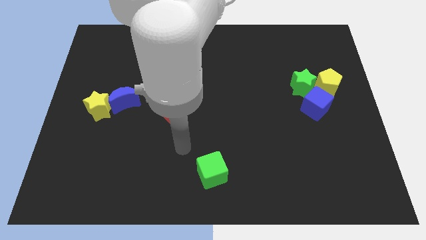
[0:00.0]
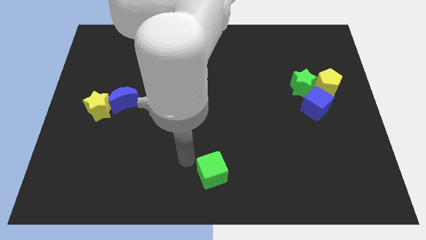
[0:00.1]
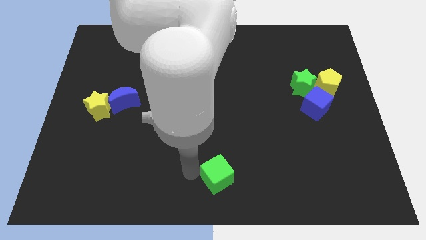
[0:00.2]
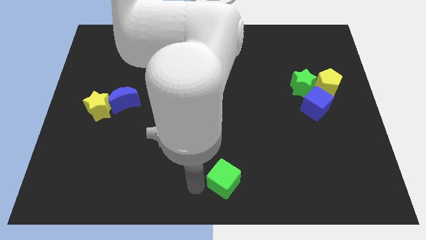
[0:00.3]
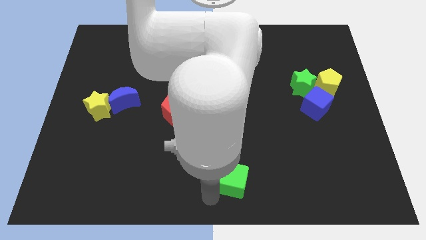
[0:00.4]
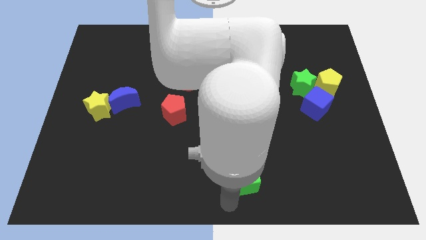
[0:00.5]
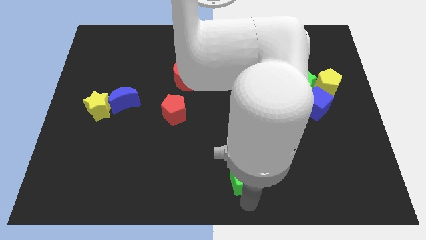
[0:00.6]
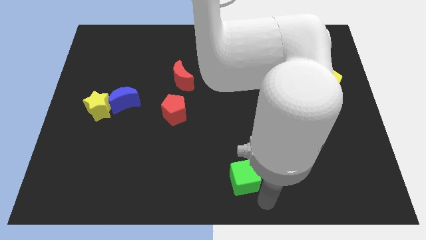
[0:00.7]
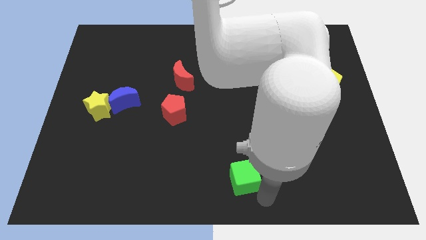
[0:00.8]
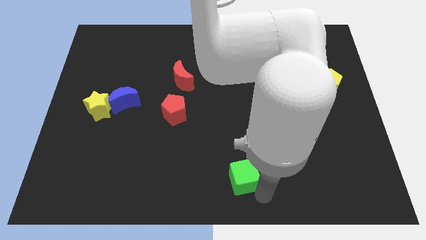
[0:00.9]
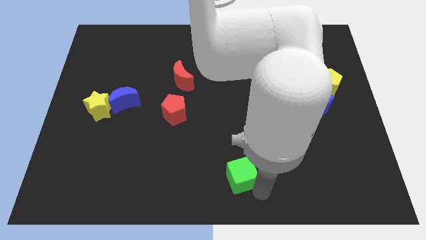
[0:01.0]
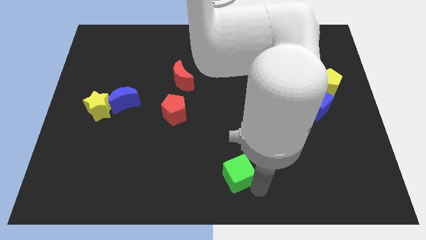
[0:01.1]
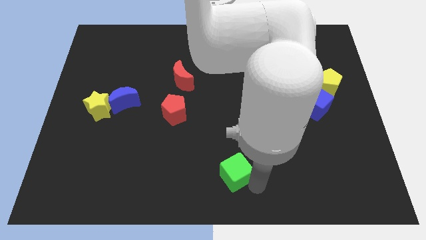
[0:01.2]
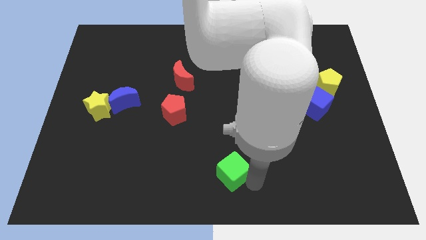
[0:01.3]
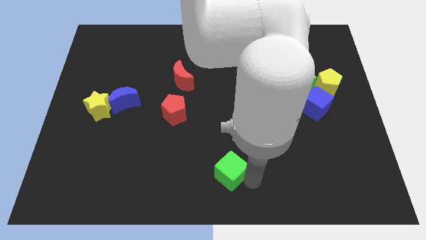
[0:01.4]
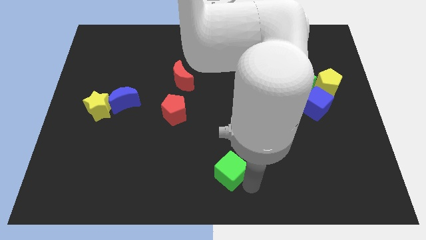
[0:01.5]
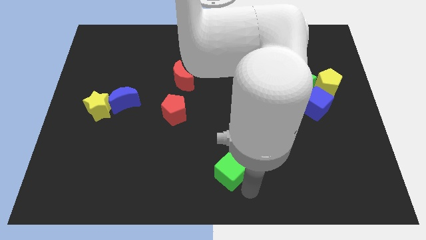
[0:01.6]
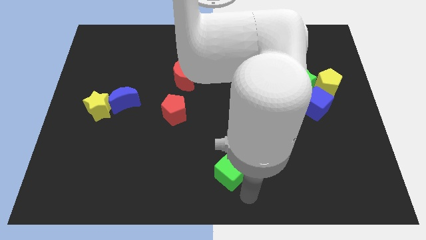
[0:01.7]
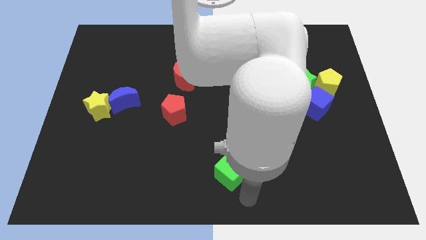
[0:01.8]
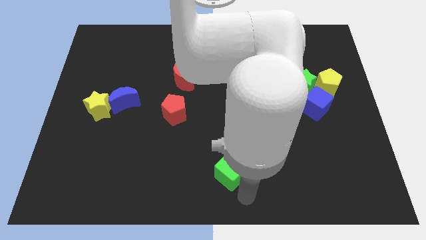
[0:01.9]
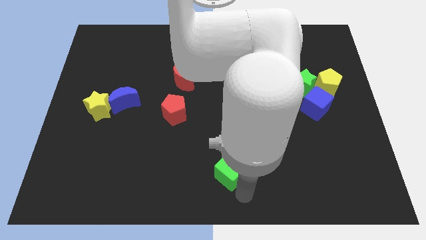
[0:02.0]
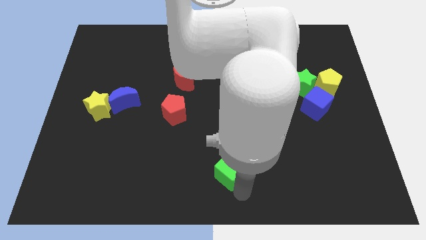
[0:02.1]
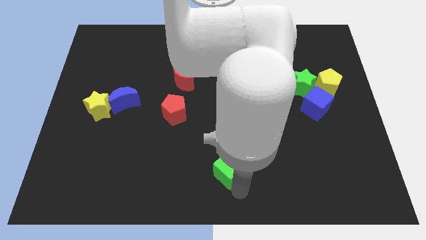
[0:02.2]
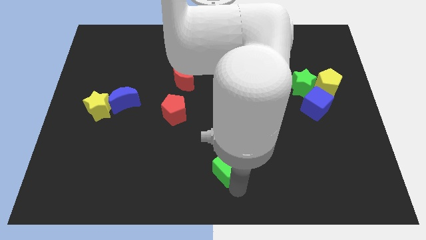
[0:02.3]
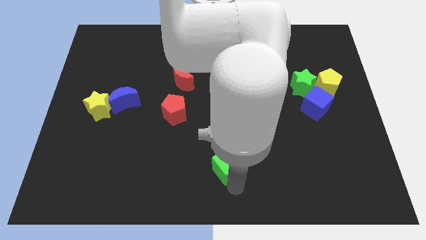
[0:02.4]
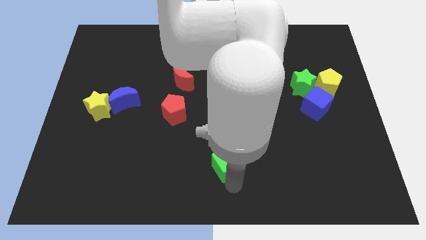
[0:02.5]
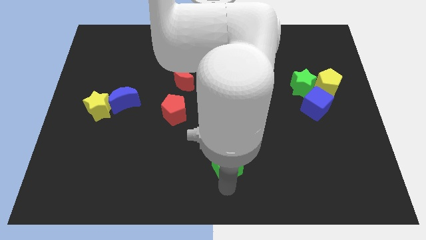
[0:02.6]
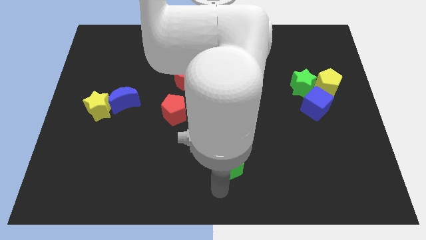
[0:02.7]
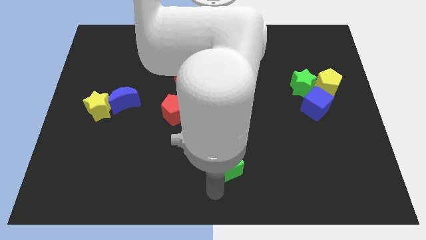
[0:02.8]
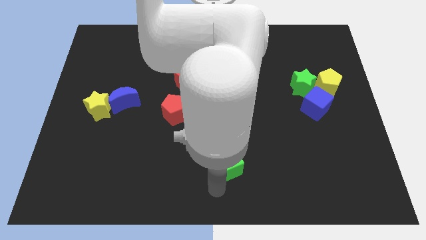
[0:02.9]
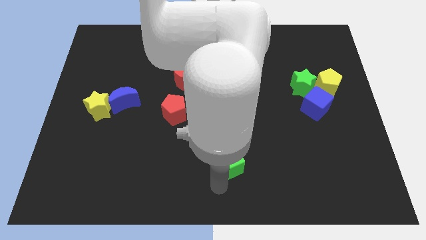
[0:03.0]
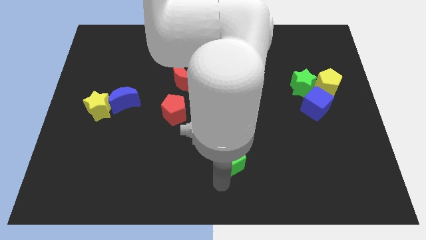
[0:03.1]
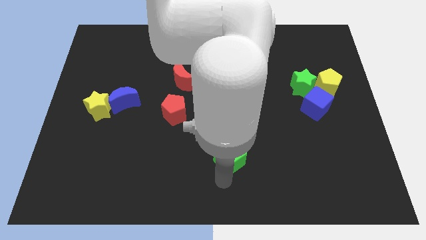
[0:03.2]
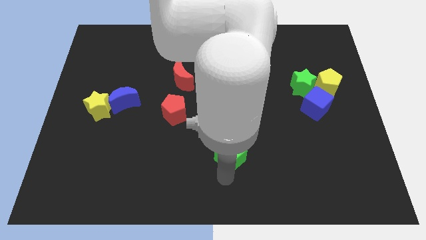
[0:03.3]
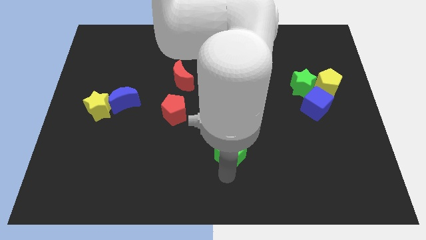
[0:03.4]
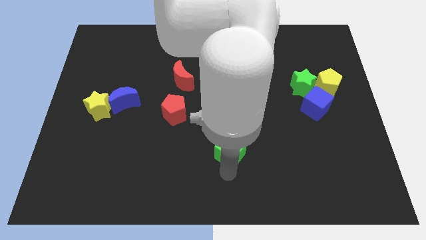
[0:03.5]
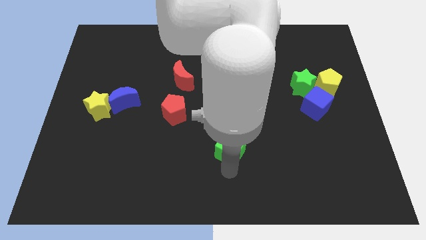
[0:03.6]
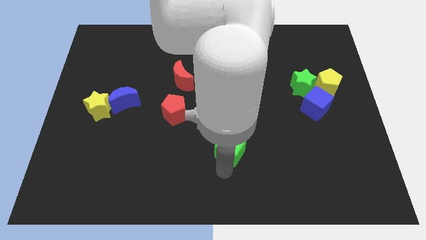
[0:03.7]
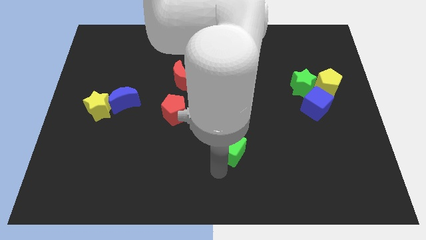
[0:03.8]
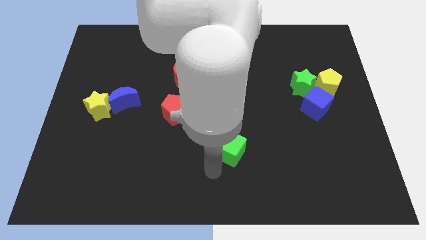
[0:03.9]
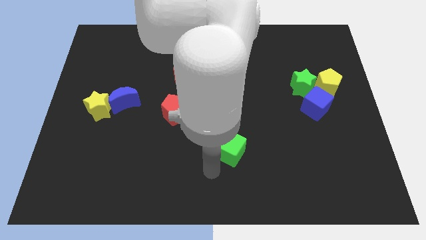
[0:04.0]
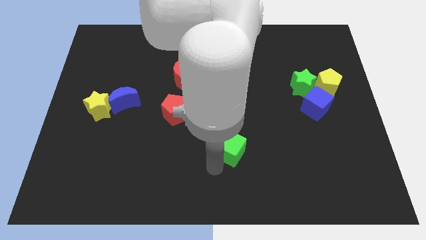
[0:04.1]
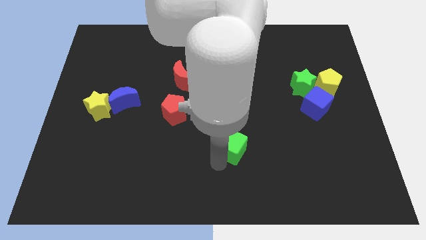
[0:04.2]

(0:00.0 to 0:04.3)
slightly push the green cube upwards and then to the right

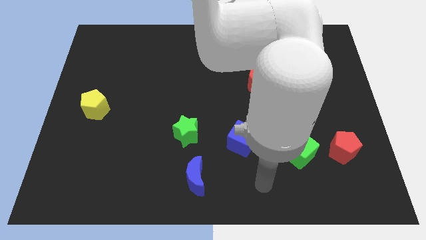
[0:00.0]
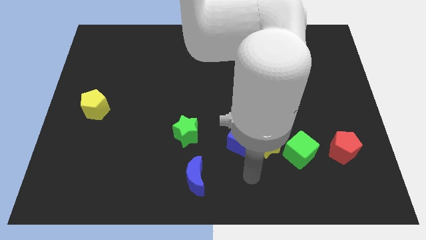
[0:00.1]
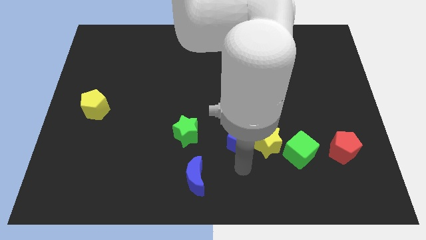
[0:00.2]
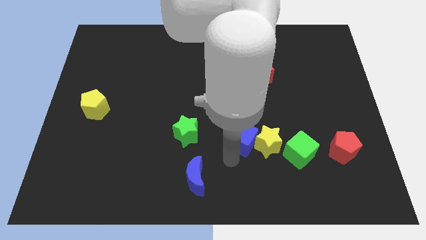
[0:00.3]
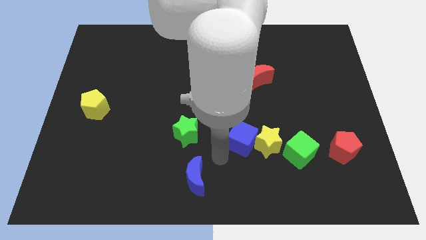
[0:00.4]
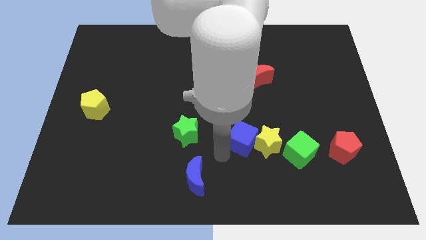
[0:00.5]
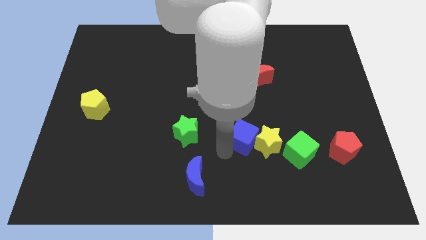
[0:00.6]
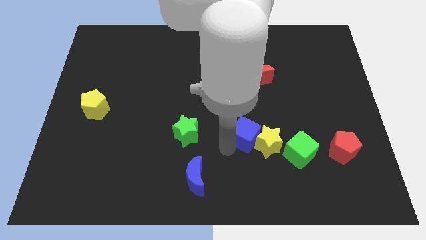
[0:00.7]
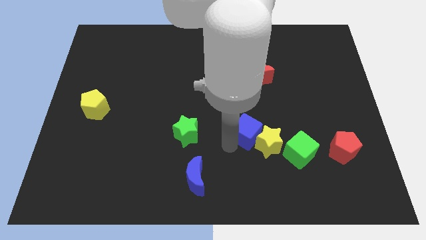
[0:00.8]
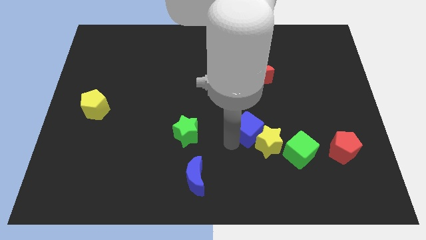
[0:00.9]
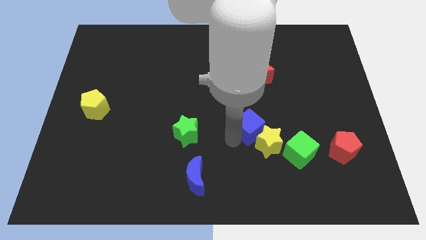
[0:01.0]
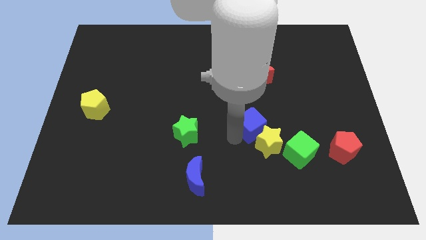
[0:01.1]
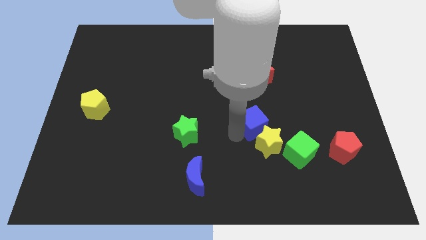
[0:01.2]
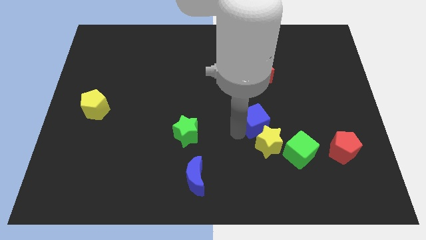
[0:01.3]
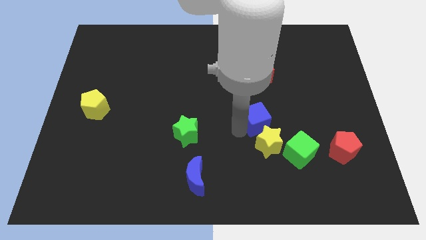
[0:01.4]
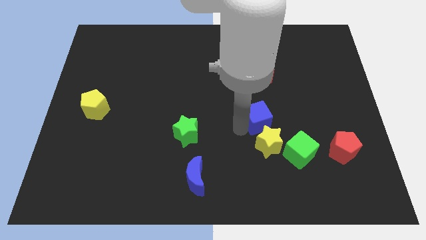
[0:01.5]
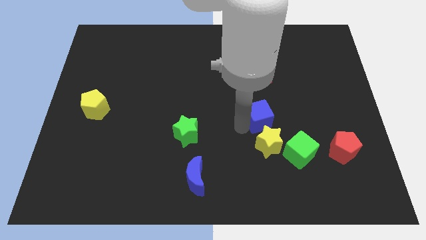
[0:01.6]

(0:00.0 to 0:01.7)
move the blue cube a bit diagonally upwards and to the right

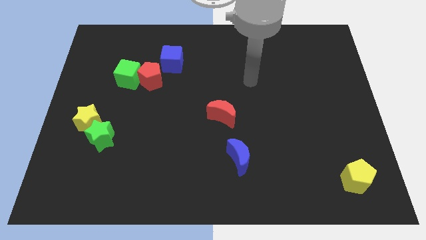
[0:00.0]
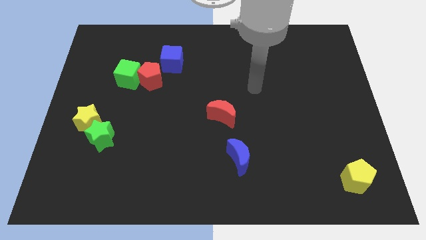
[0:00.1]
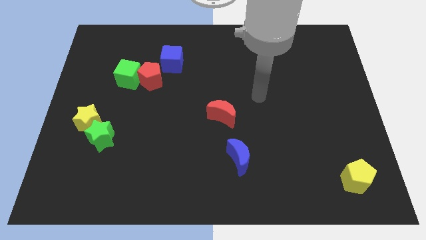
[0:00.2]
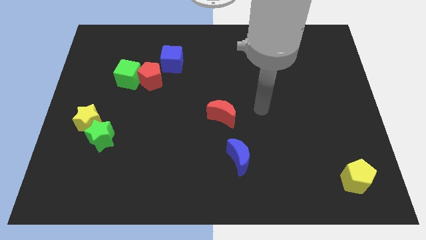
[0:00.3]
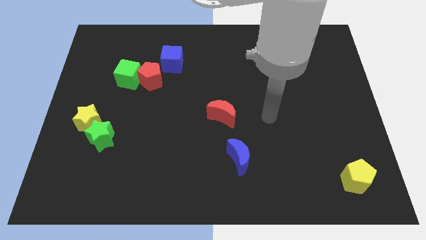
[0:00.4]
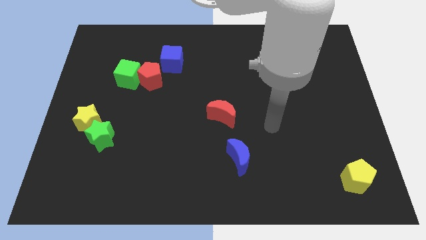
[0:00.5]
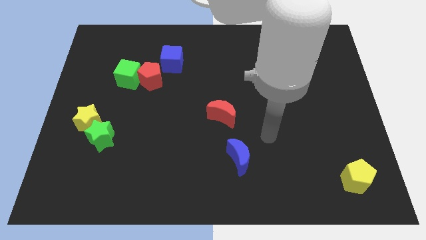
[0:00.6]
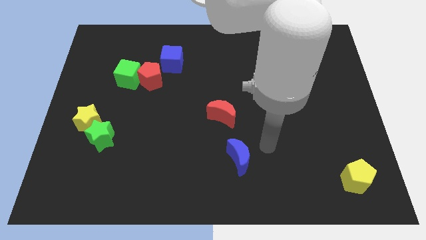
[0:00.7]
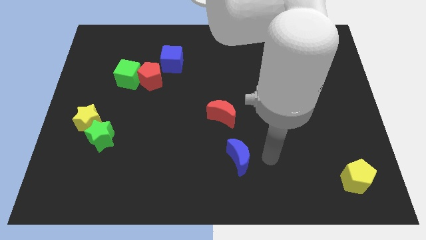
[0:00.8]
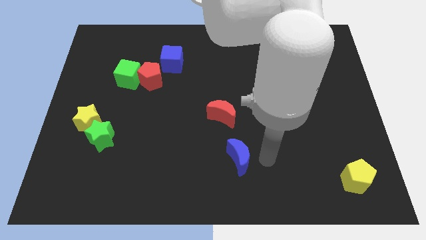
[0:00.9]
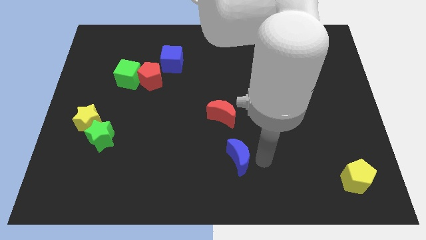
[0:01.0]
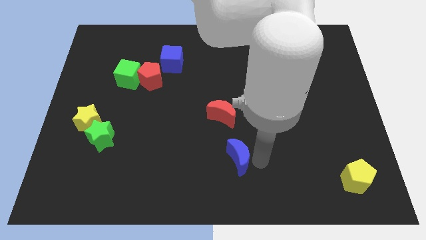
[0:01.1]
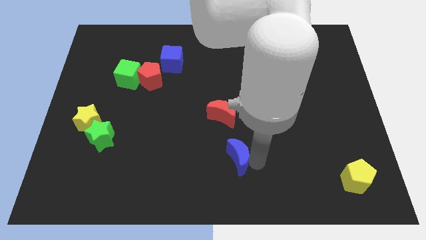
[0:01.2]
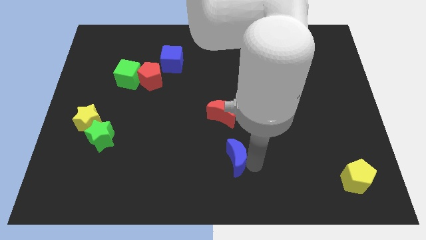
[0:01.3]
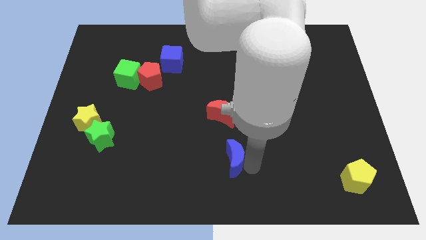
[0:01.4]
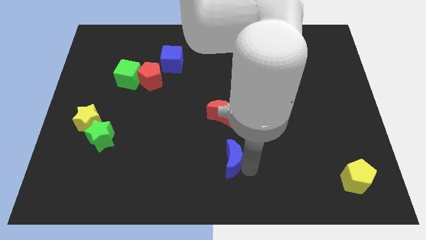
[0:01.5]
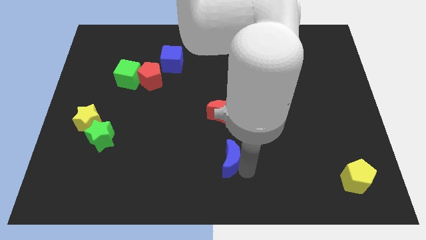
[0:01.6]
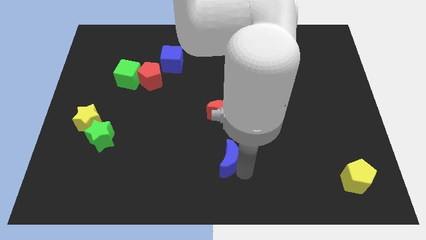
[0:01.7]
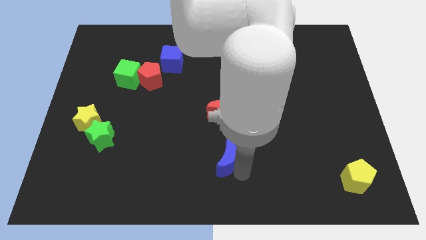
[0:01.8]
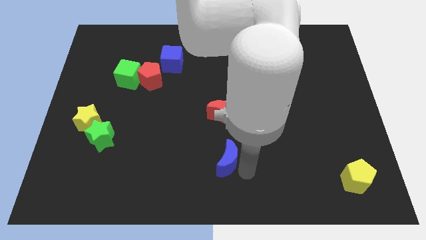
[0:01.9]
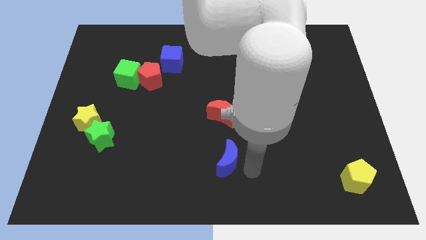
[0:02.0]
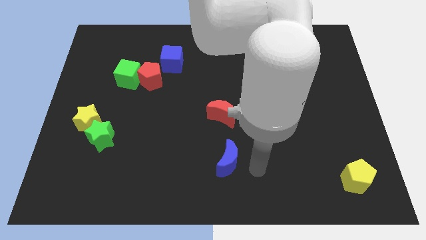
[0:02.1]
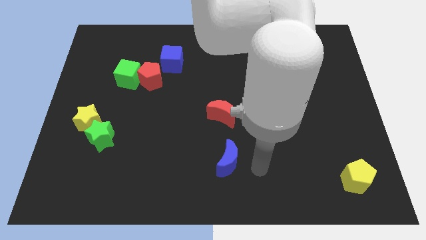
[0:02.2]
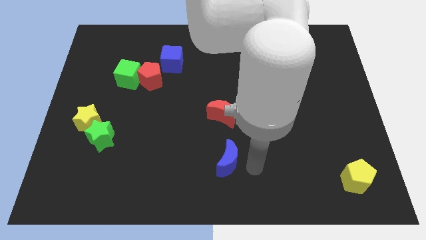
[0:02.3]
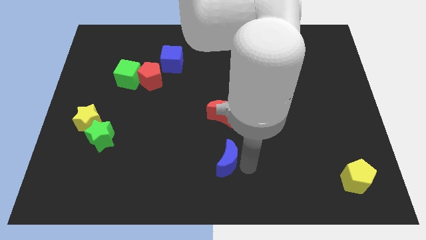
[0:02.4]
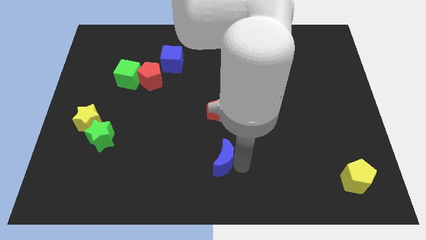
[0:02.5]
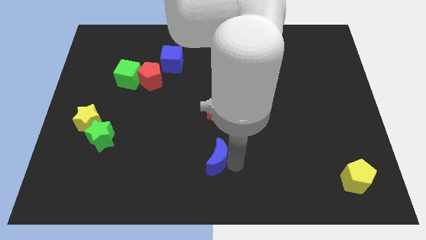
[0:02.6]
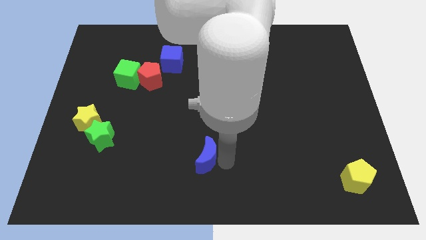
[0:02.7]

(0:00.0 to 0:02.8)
move the blue moon left a bit
